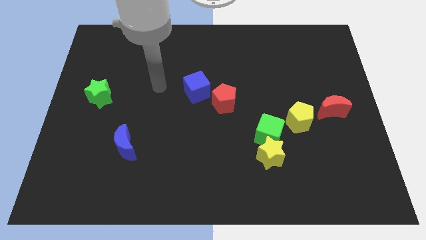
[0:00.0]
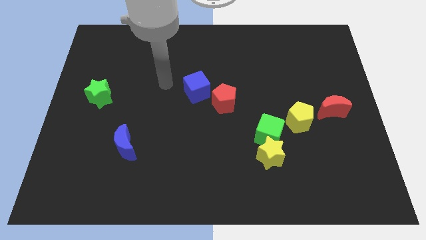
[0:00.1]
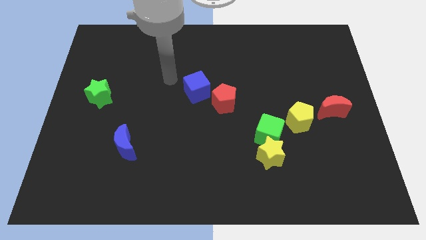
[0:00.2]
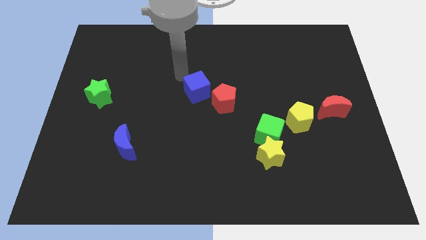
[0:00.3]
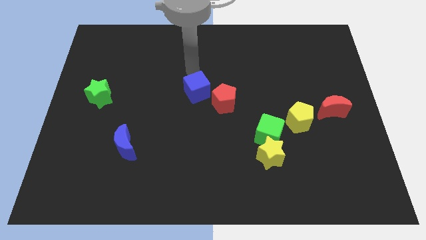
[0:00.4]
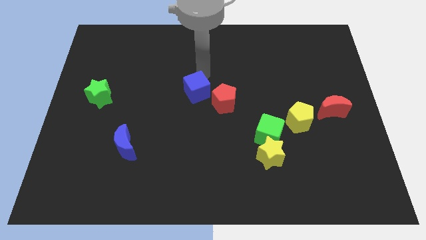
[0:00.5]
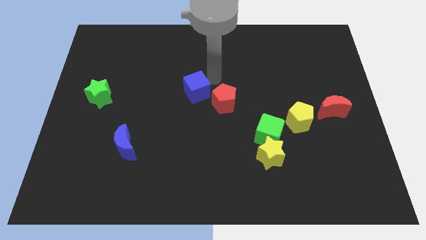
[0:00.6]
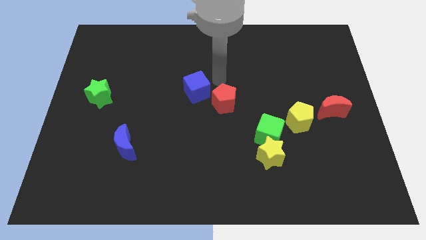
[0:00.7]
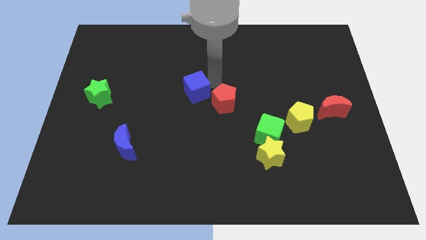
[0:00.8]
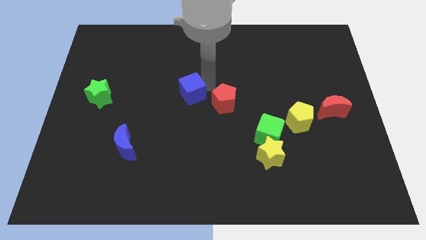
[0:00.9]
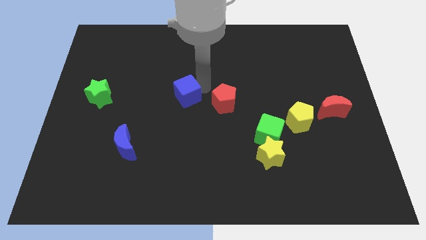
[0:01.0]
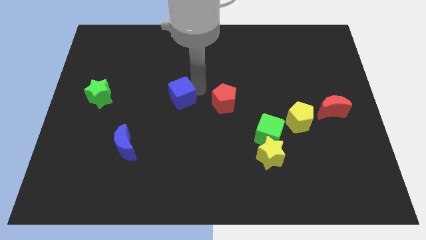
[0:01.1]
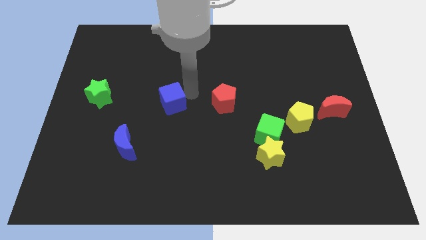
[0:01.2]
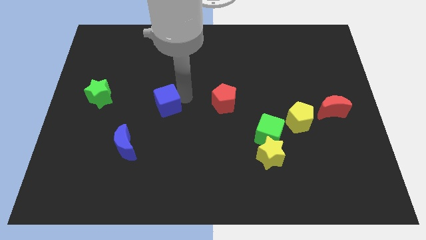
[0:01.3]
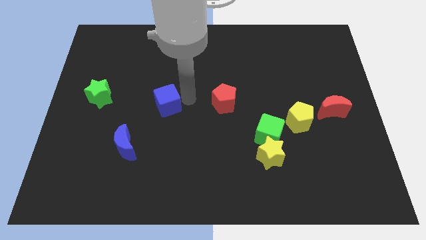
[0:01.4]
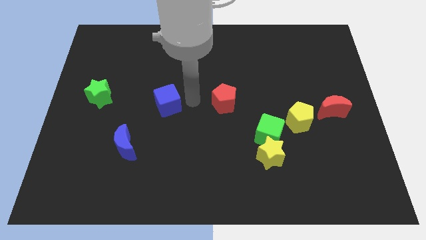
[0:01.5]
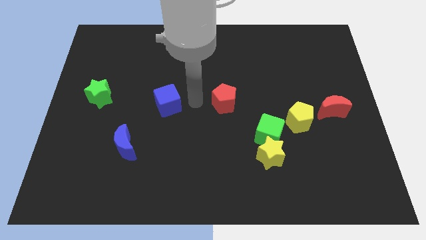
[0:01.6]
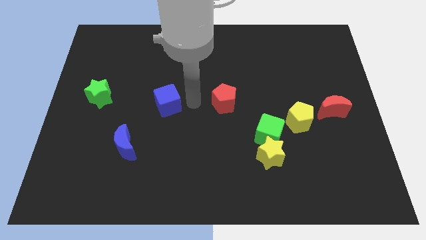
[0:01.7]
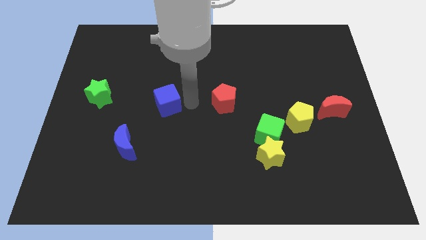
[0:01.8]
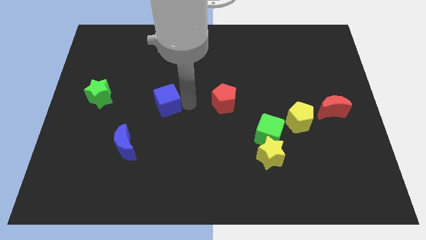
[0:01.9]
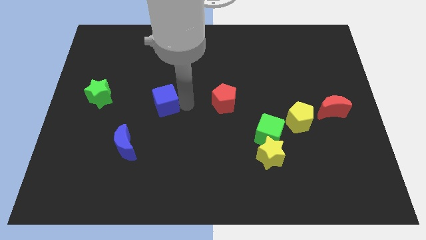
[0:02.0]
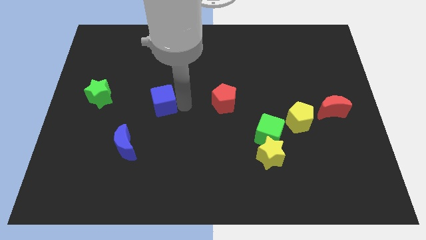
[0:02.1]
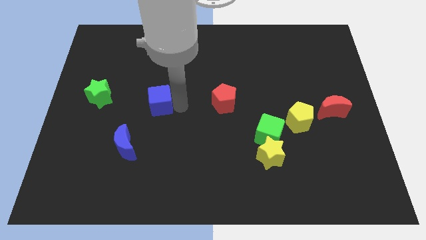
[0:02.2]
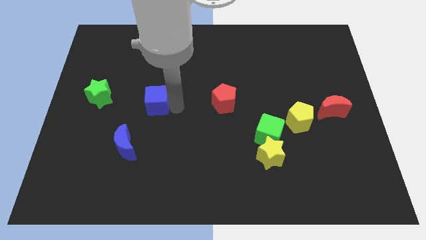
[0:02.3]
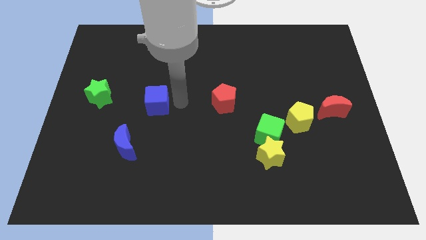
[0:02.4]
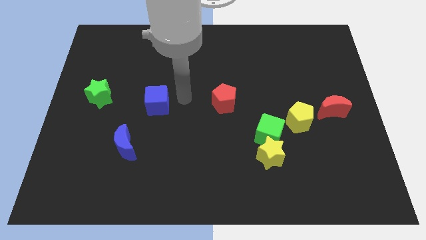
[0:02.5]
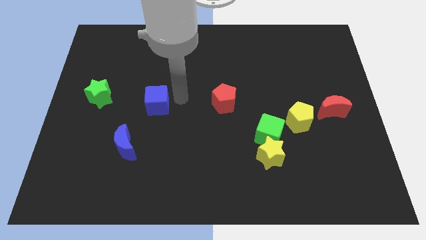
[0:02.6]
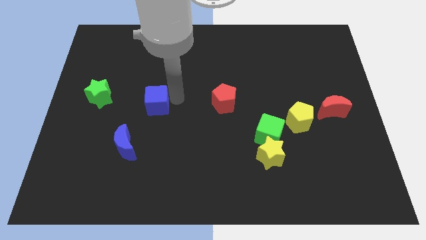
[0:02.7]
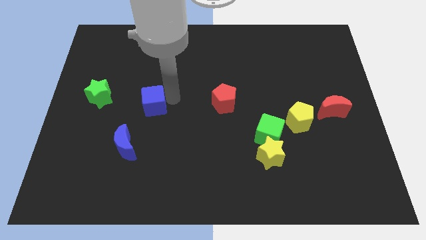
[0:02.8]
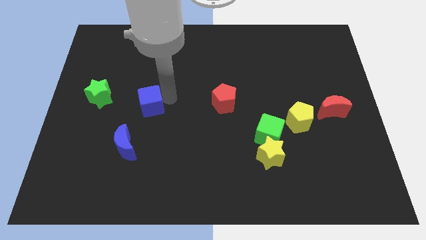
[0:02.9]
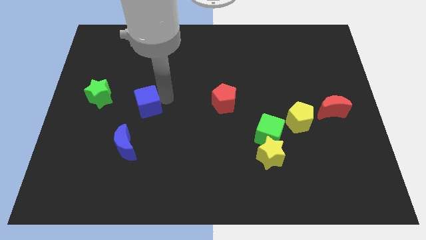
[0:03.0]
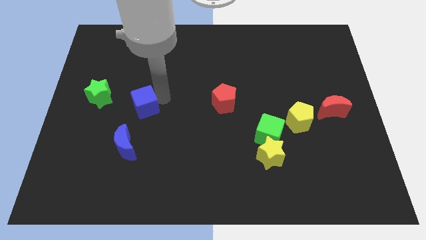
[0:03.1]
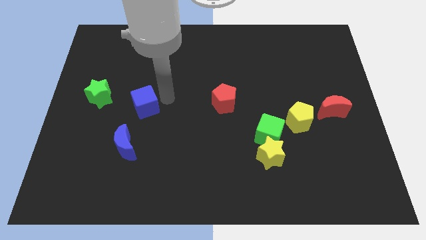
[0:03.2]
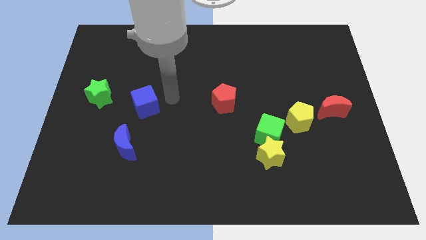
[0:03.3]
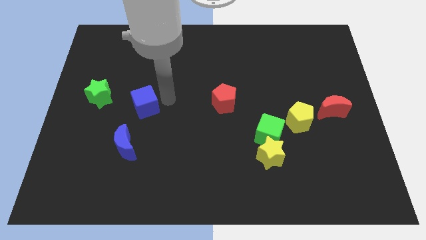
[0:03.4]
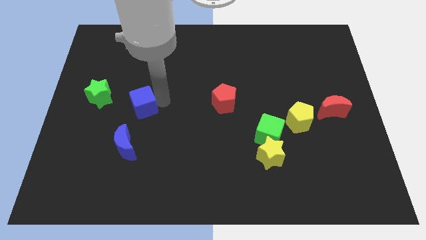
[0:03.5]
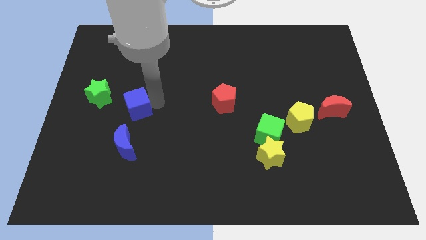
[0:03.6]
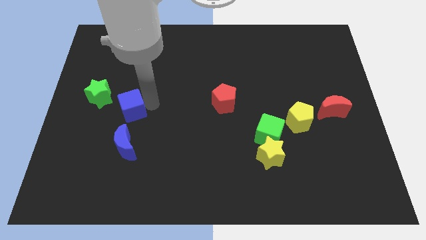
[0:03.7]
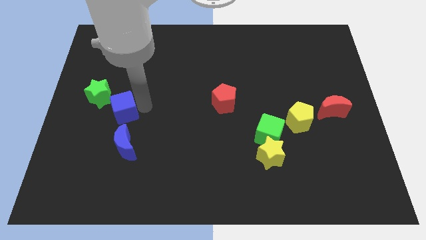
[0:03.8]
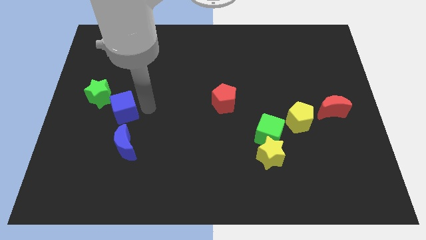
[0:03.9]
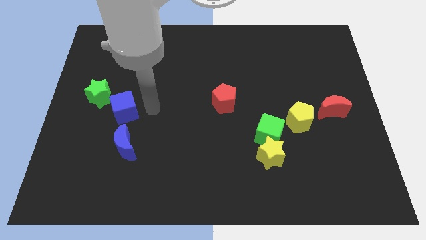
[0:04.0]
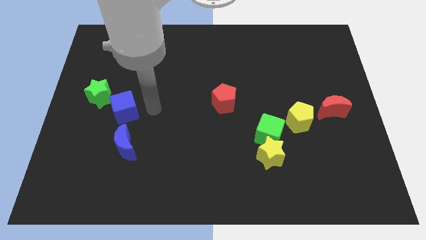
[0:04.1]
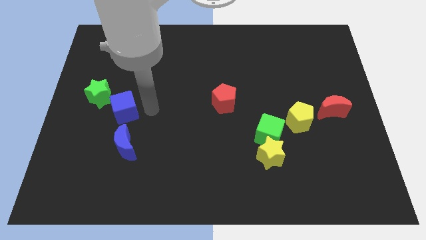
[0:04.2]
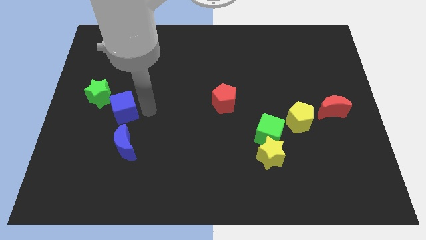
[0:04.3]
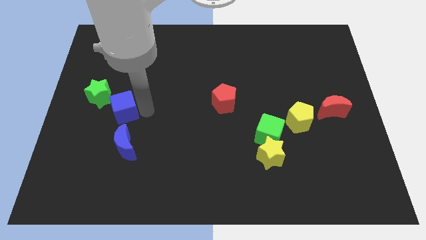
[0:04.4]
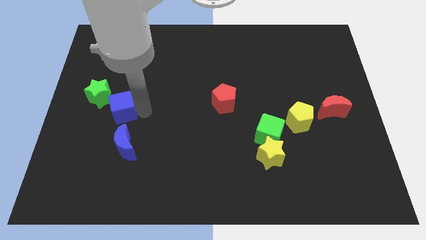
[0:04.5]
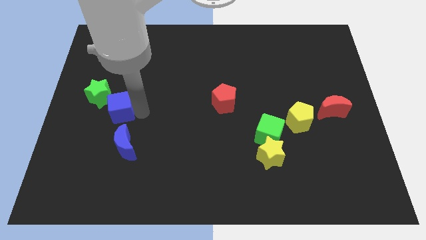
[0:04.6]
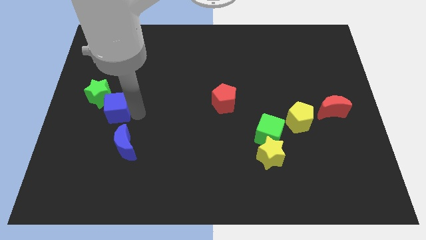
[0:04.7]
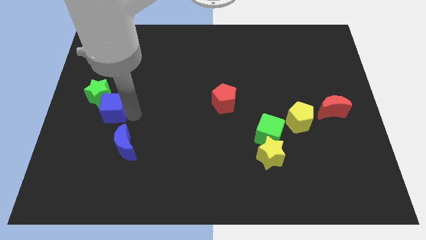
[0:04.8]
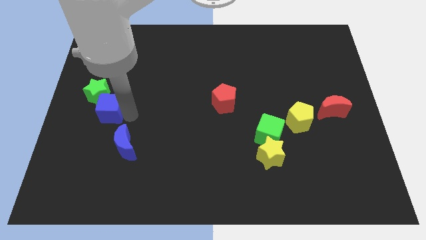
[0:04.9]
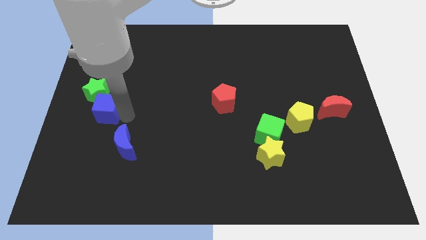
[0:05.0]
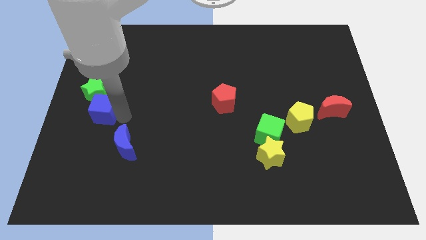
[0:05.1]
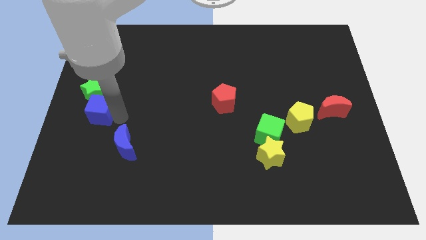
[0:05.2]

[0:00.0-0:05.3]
put the blue cube to the center left
